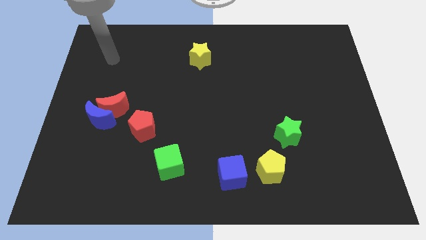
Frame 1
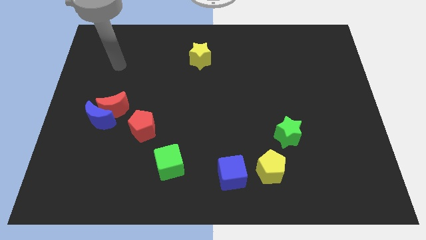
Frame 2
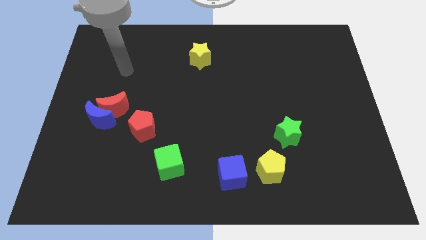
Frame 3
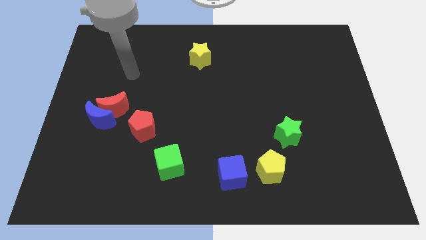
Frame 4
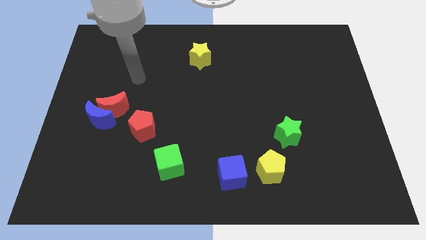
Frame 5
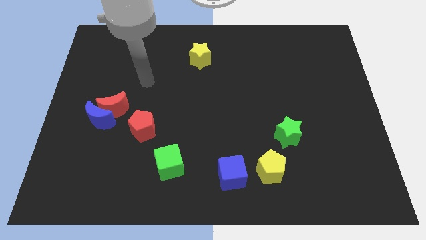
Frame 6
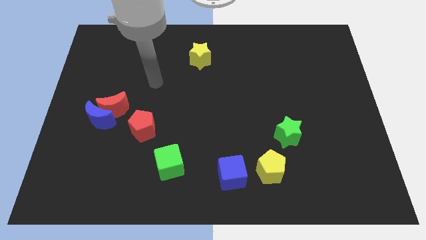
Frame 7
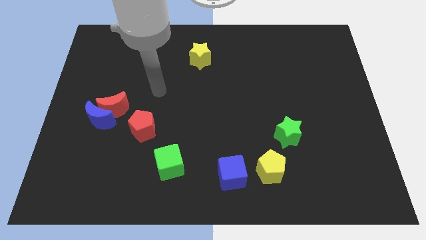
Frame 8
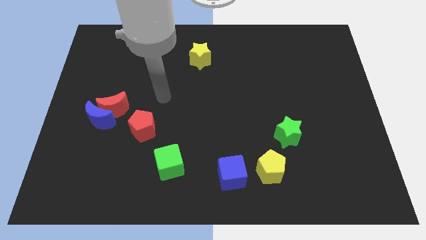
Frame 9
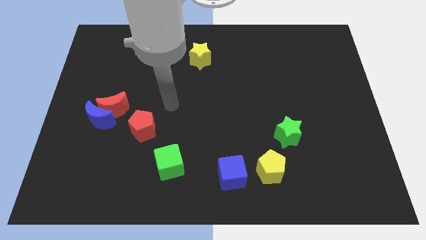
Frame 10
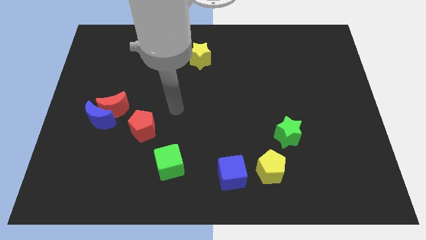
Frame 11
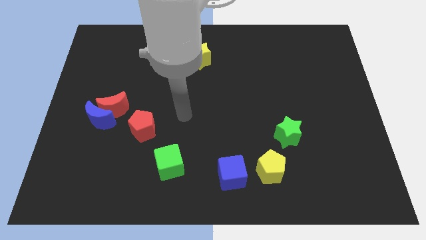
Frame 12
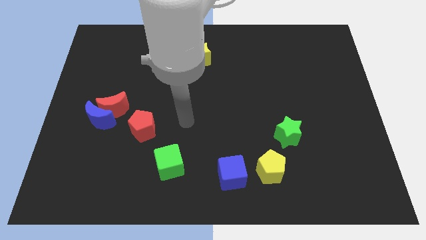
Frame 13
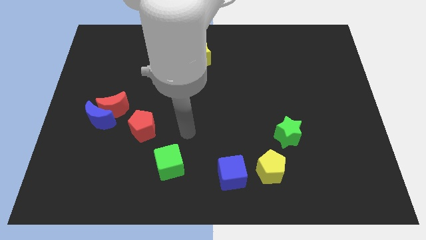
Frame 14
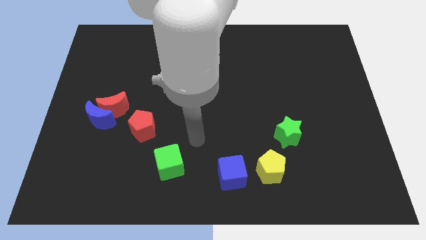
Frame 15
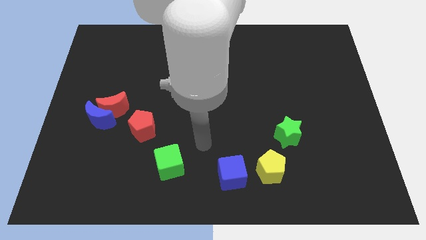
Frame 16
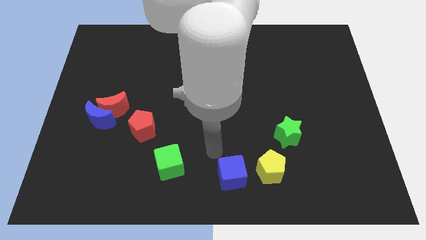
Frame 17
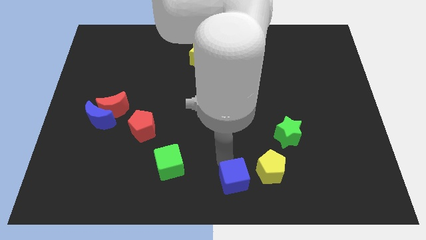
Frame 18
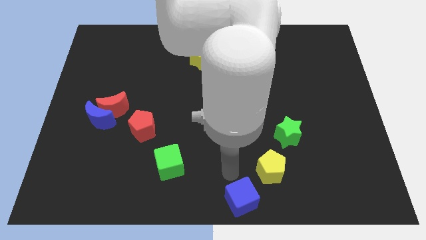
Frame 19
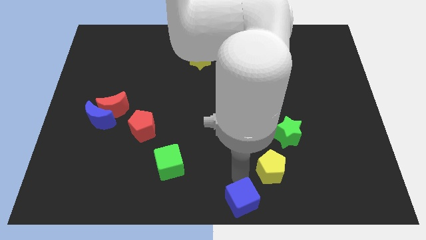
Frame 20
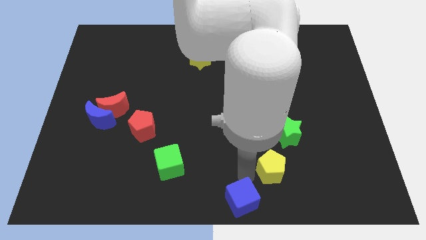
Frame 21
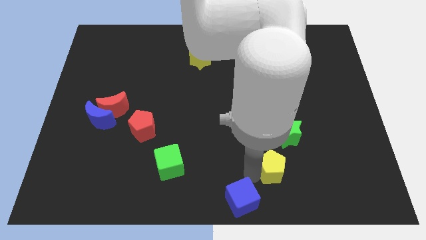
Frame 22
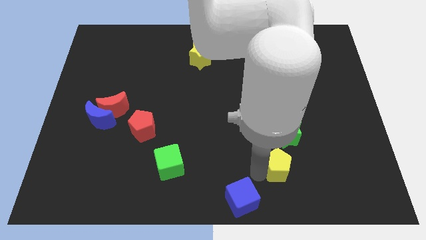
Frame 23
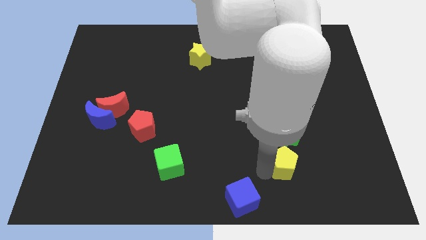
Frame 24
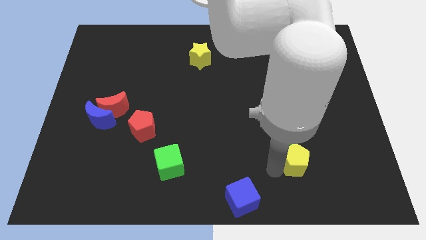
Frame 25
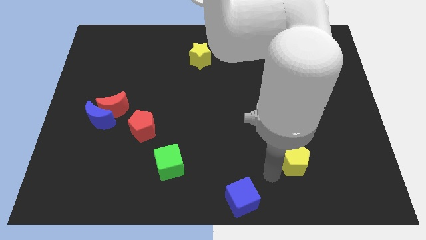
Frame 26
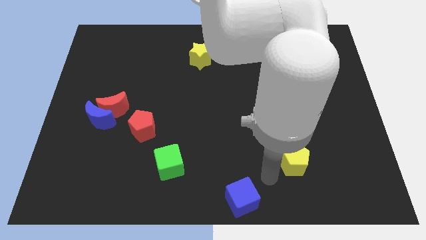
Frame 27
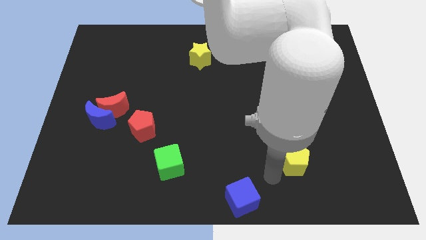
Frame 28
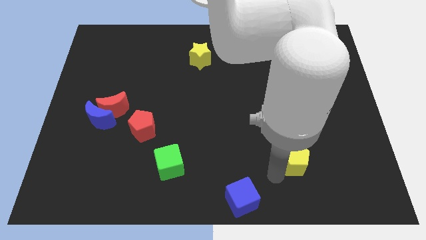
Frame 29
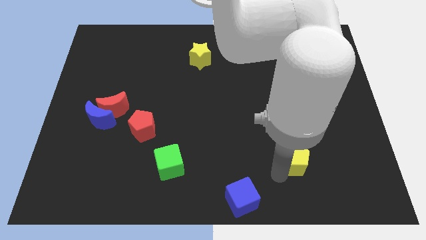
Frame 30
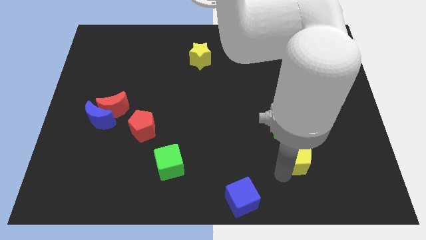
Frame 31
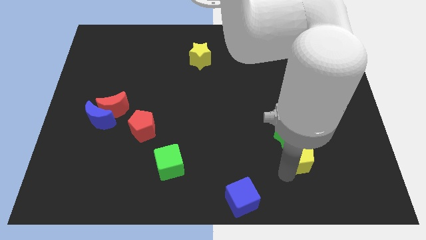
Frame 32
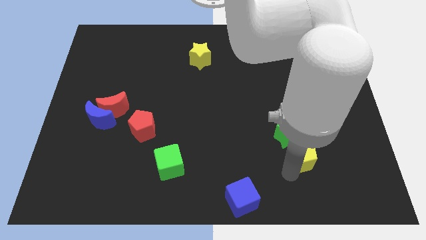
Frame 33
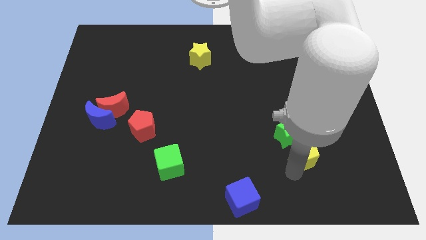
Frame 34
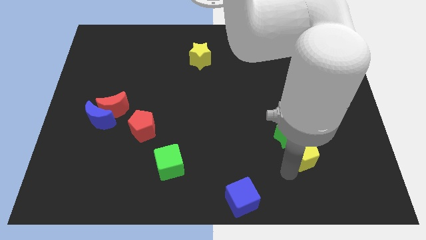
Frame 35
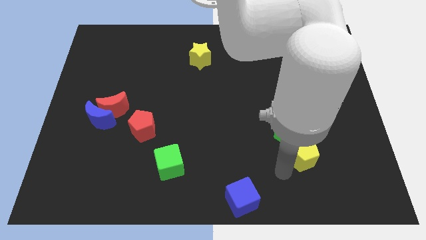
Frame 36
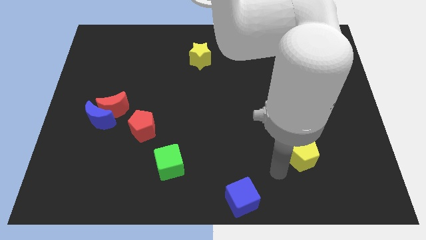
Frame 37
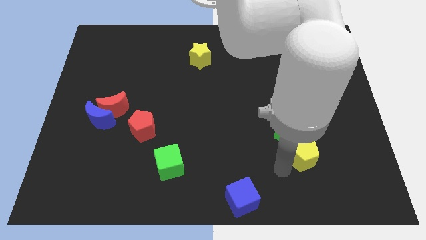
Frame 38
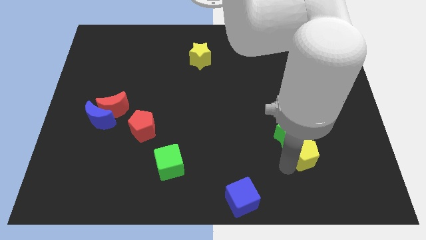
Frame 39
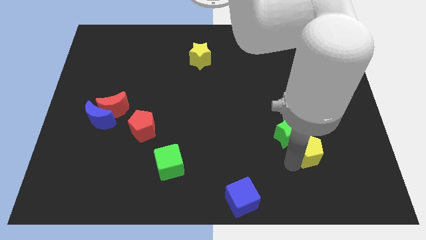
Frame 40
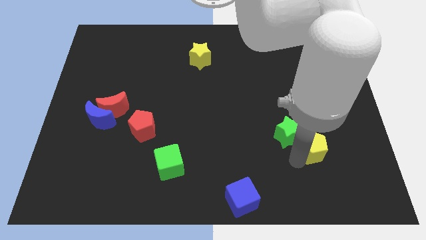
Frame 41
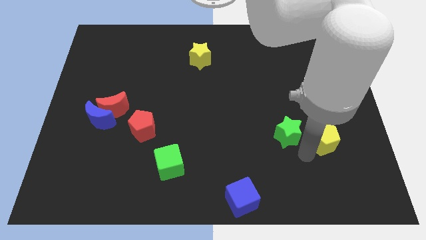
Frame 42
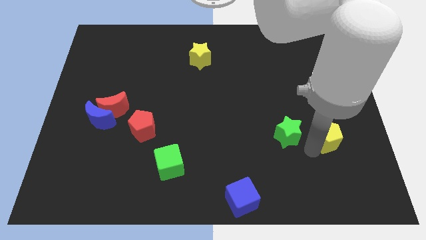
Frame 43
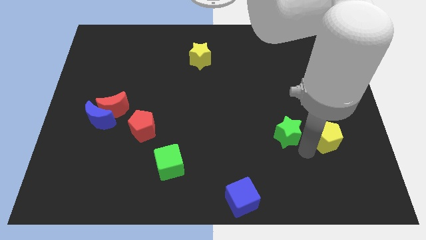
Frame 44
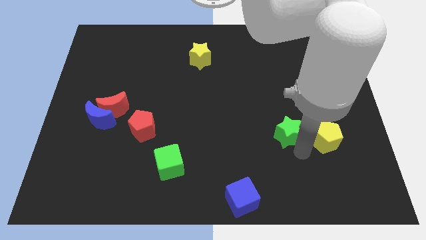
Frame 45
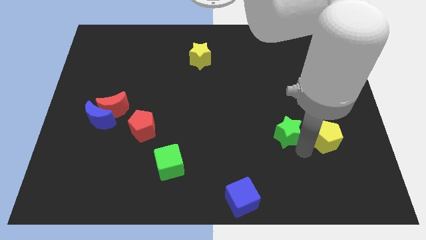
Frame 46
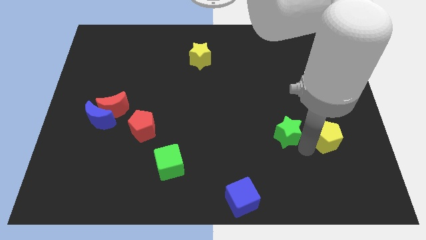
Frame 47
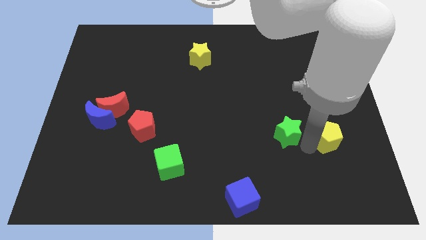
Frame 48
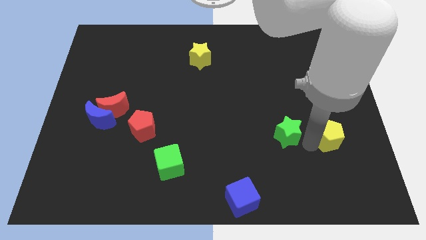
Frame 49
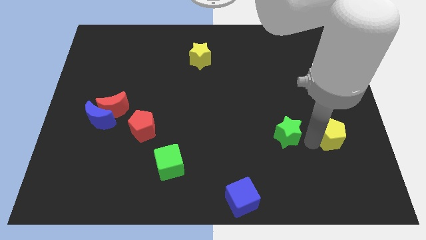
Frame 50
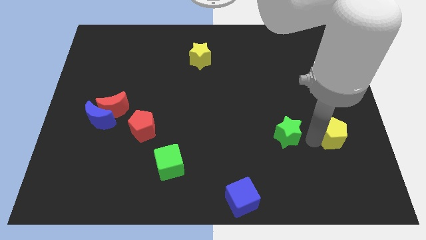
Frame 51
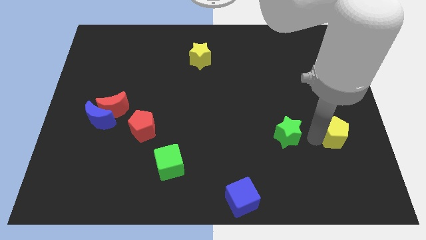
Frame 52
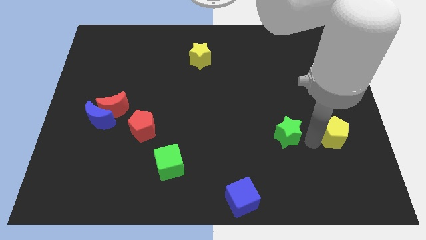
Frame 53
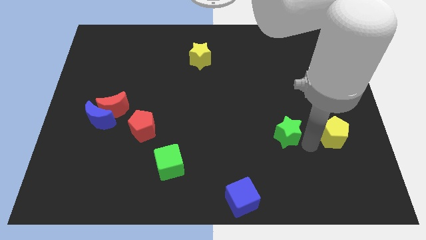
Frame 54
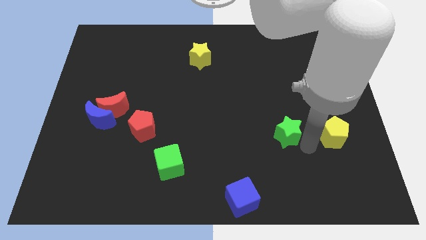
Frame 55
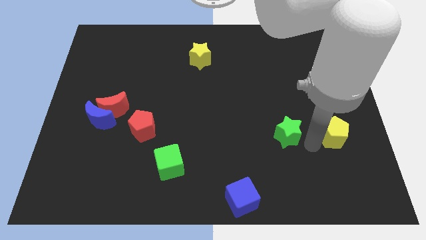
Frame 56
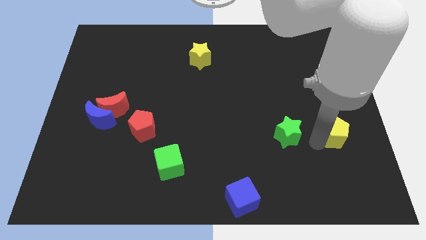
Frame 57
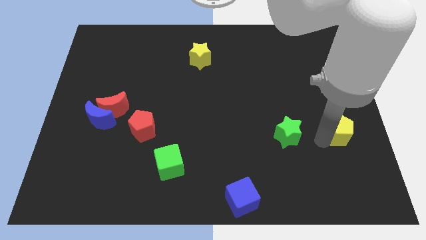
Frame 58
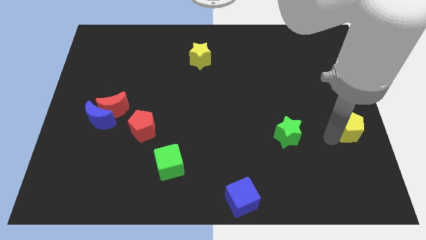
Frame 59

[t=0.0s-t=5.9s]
push the yellow pentagon to the right side
